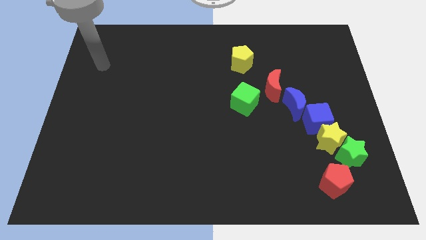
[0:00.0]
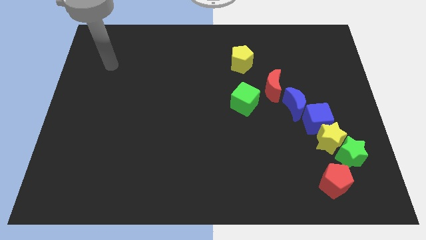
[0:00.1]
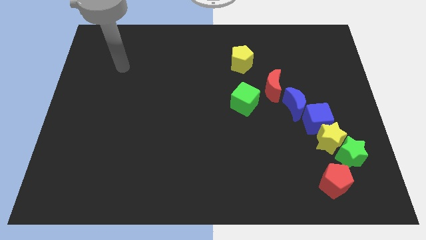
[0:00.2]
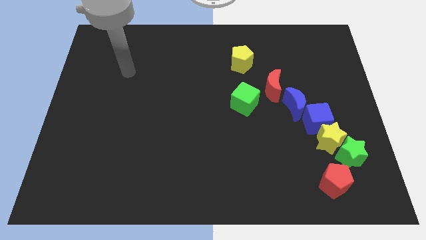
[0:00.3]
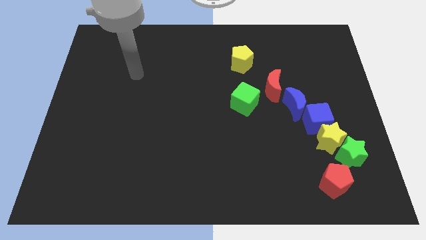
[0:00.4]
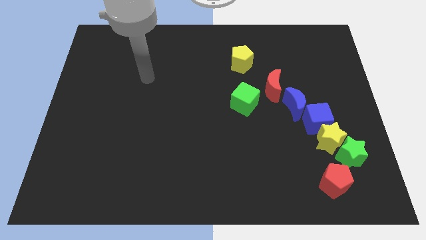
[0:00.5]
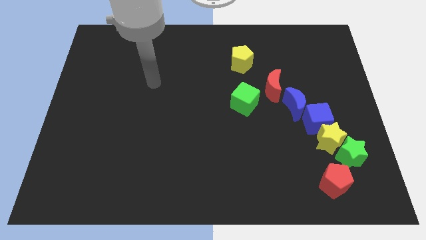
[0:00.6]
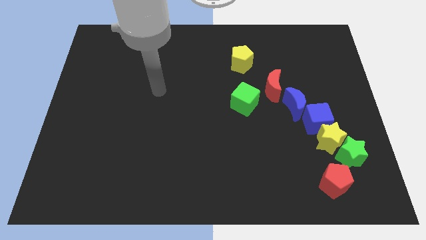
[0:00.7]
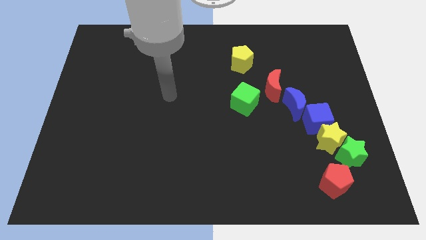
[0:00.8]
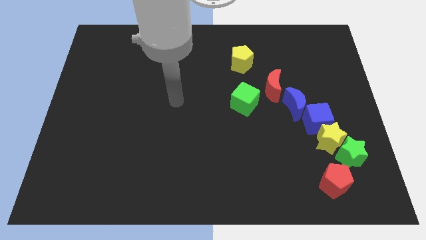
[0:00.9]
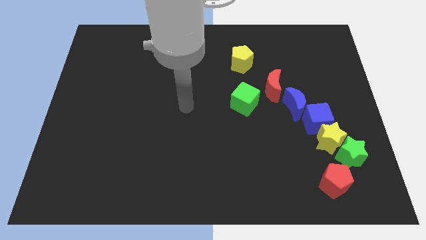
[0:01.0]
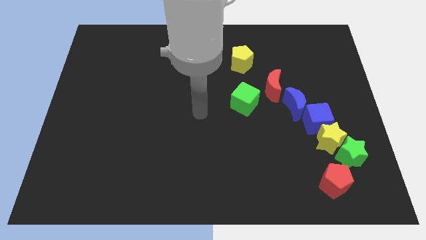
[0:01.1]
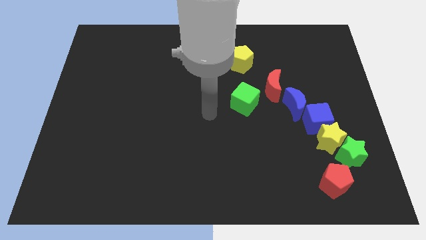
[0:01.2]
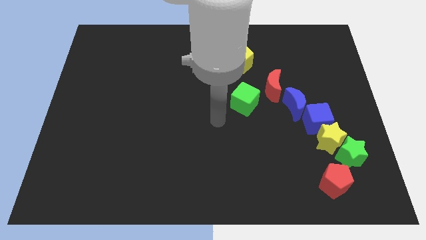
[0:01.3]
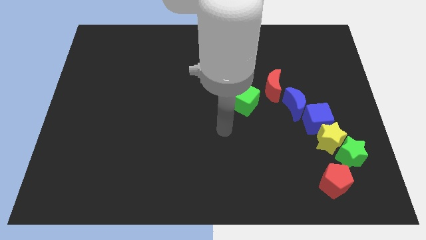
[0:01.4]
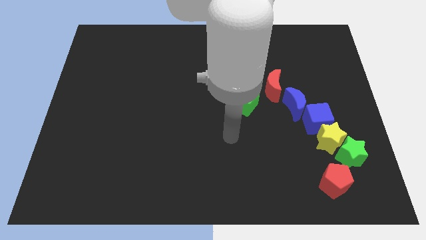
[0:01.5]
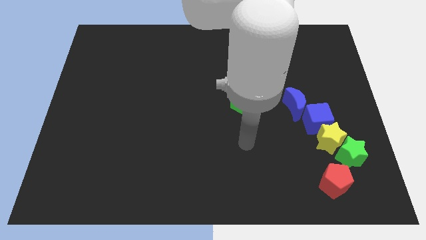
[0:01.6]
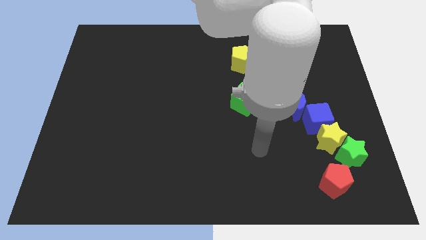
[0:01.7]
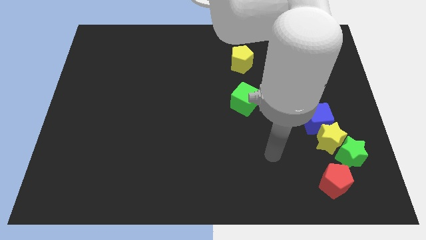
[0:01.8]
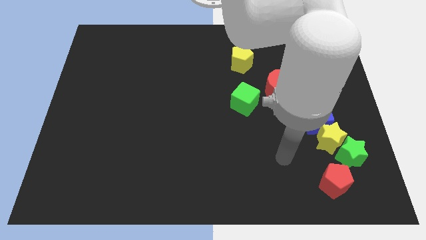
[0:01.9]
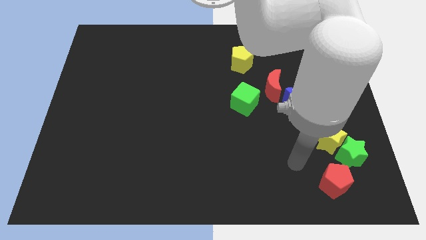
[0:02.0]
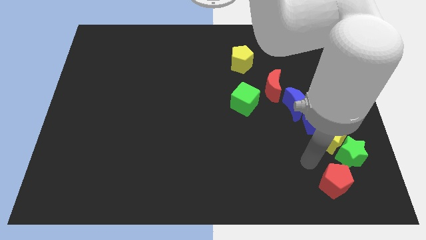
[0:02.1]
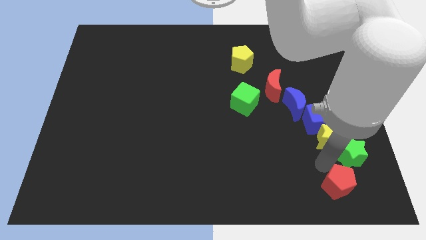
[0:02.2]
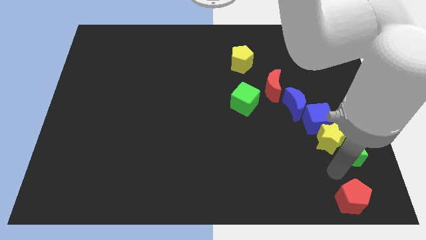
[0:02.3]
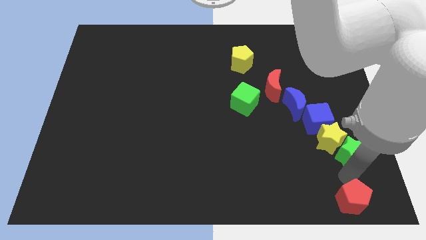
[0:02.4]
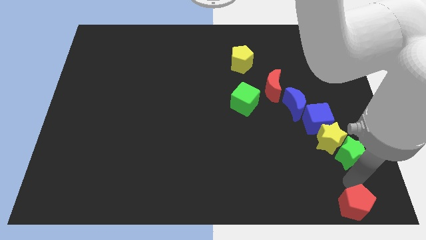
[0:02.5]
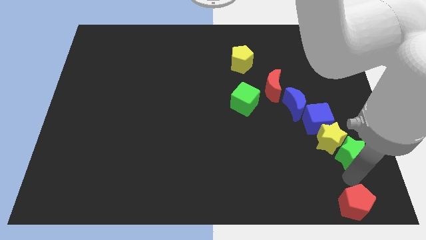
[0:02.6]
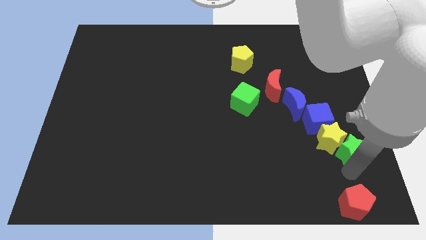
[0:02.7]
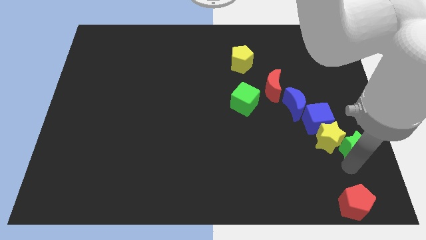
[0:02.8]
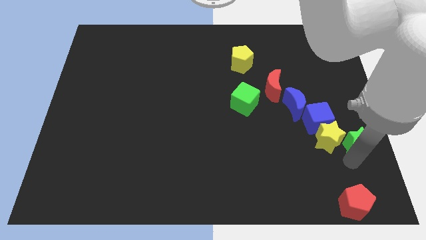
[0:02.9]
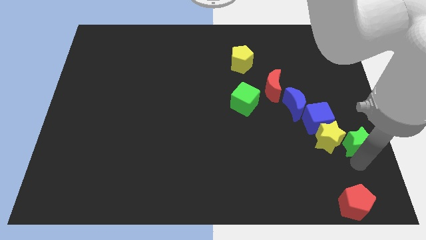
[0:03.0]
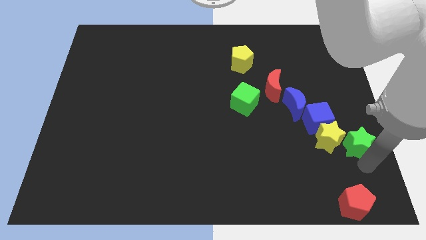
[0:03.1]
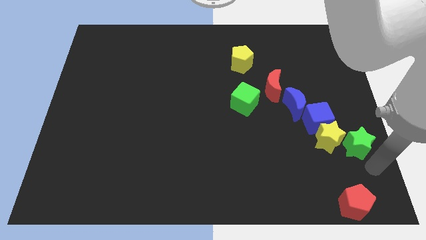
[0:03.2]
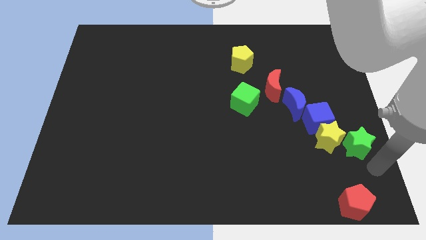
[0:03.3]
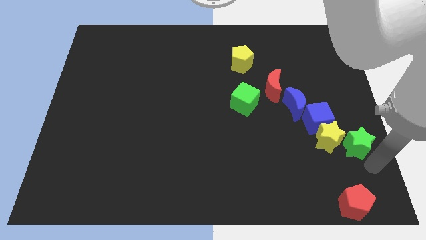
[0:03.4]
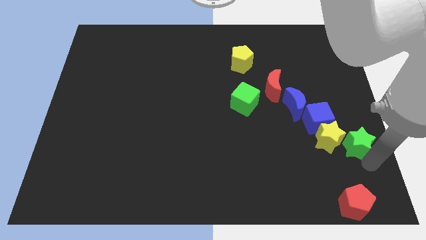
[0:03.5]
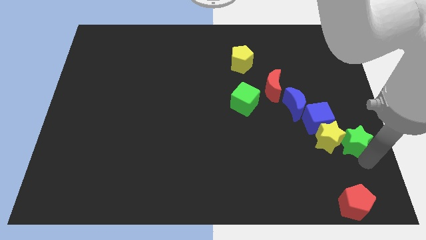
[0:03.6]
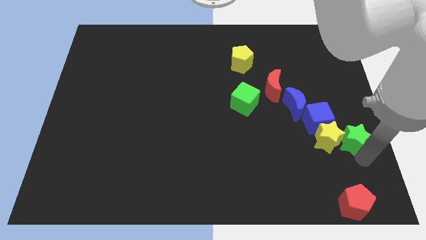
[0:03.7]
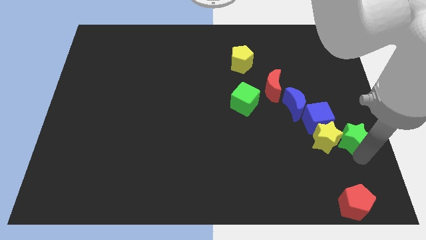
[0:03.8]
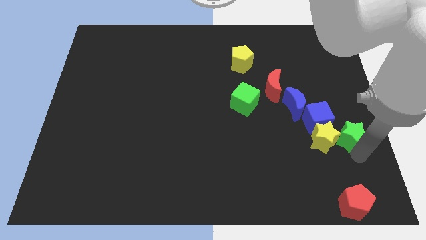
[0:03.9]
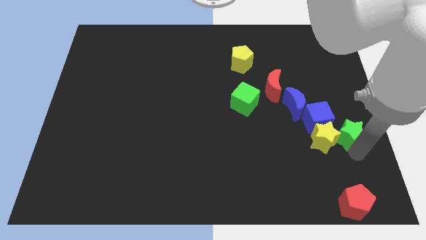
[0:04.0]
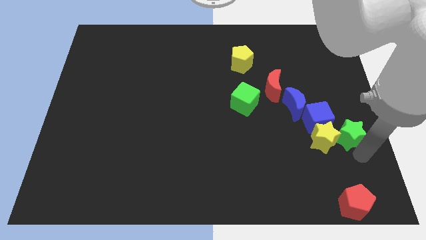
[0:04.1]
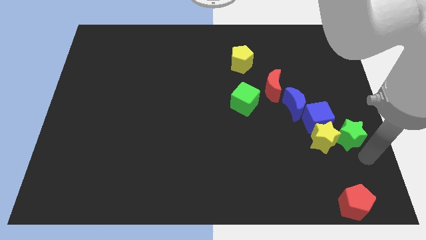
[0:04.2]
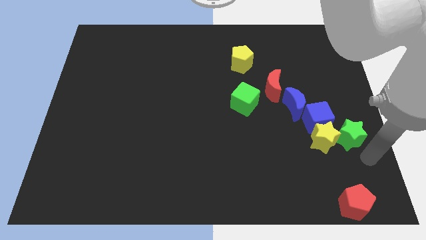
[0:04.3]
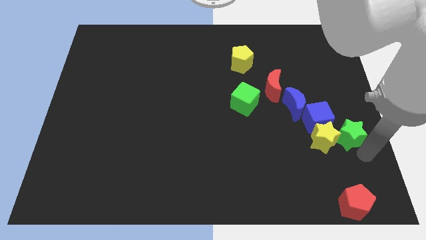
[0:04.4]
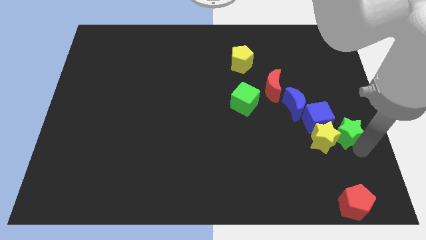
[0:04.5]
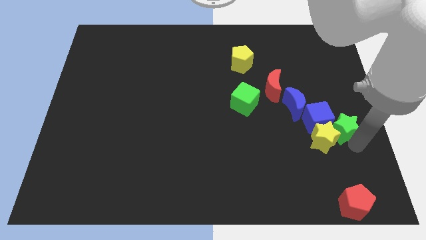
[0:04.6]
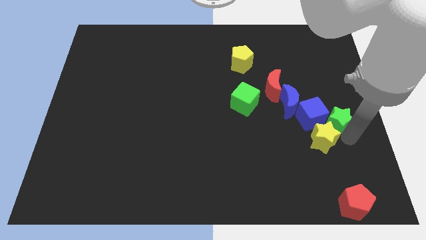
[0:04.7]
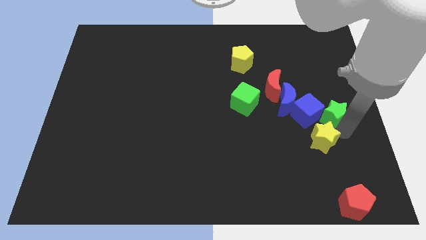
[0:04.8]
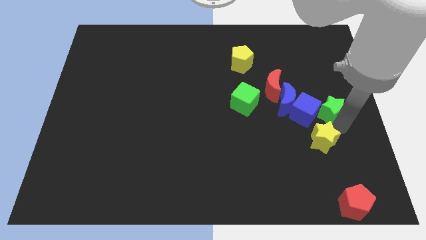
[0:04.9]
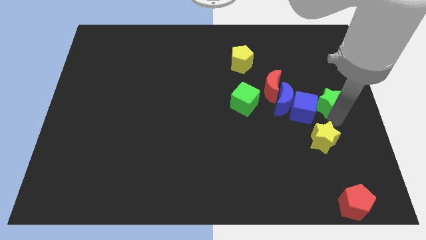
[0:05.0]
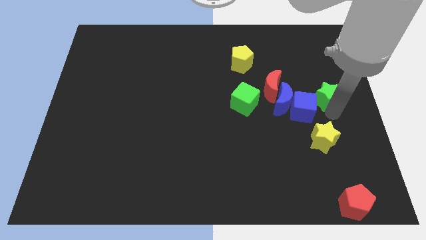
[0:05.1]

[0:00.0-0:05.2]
push the green star to the right of the red moon

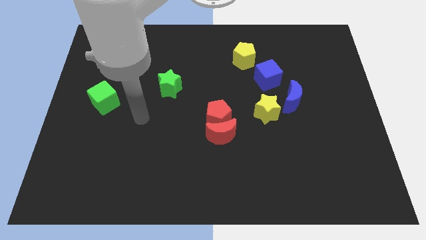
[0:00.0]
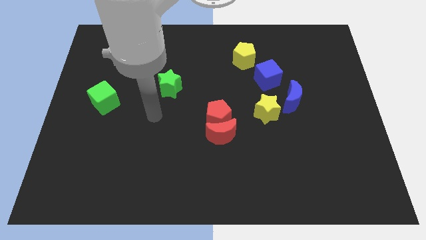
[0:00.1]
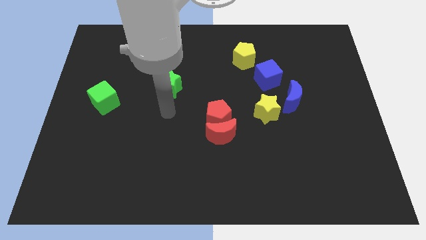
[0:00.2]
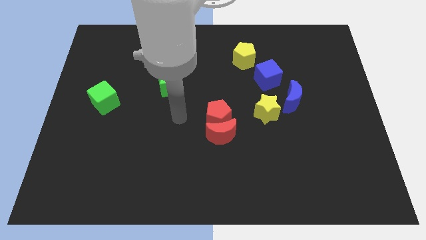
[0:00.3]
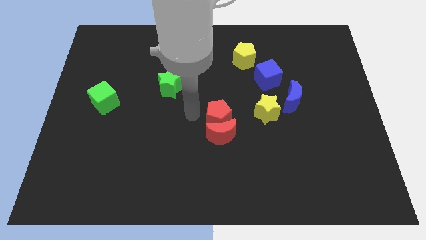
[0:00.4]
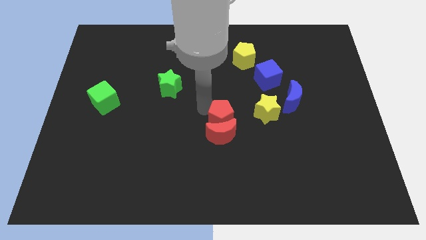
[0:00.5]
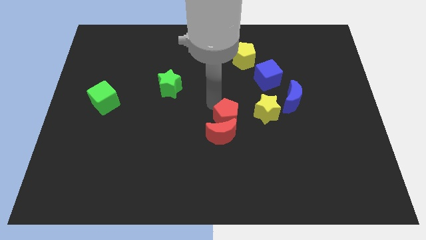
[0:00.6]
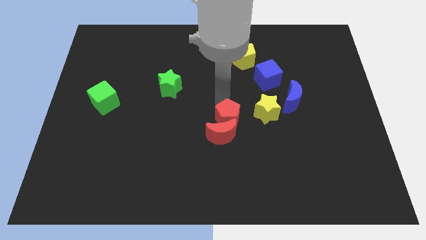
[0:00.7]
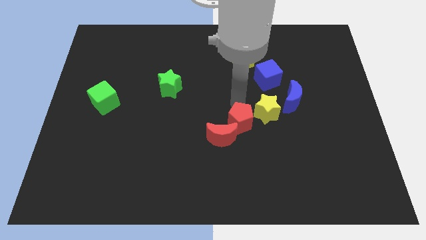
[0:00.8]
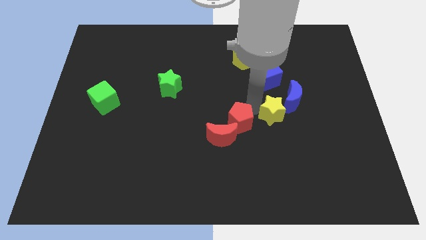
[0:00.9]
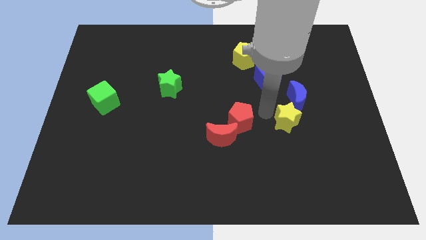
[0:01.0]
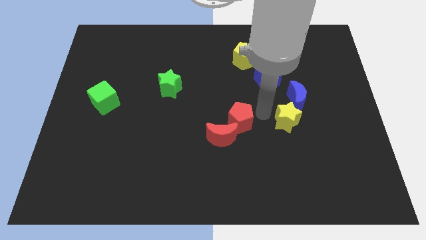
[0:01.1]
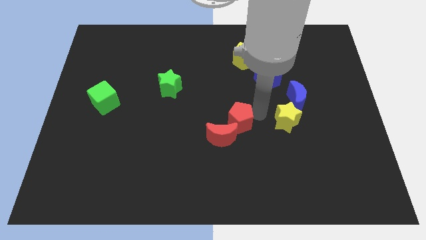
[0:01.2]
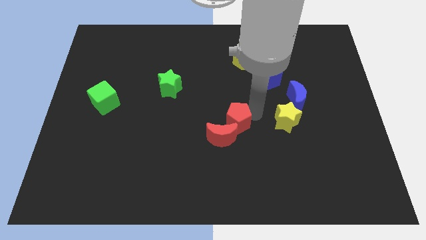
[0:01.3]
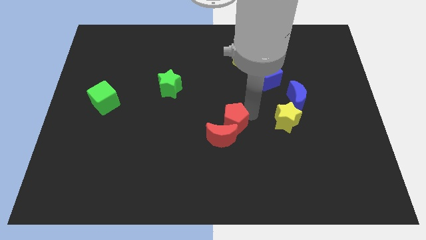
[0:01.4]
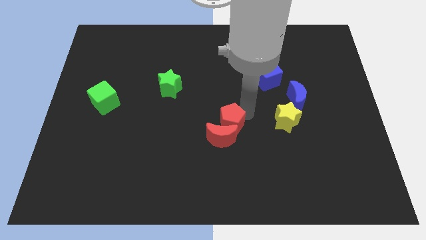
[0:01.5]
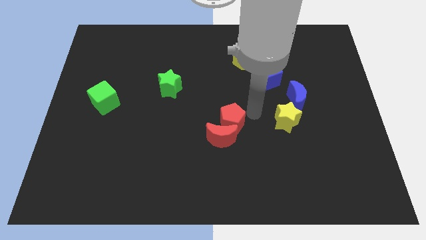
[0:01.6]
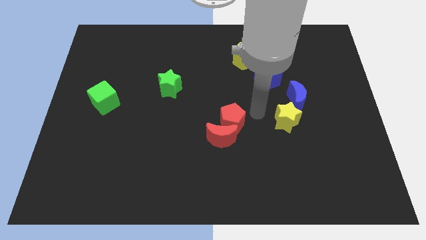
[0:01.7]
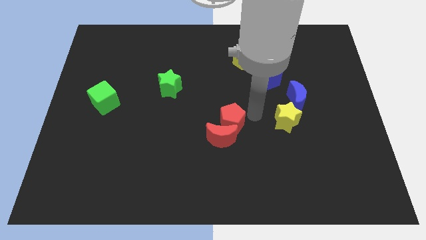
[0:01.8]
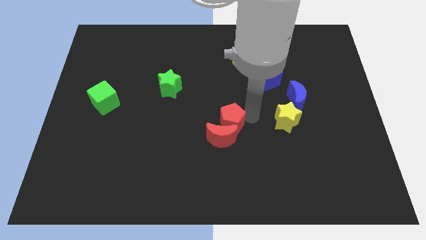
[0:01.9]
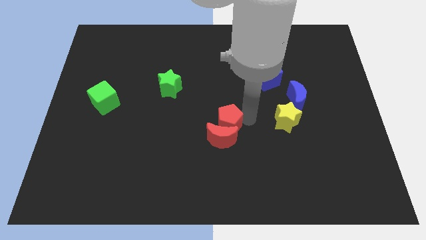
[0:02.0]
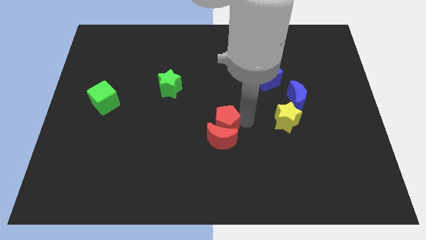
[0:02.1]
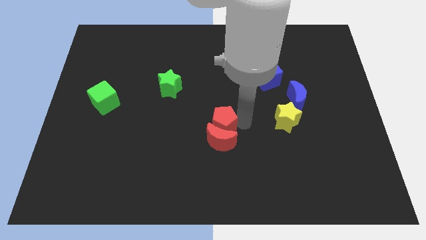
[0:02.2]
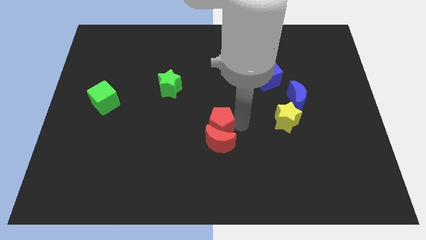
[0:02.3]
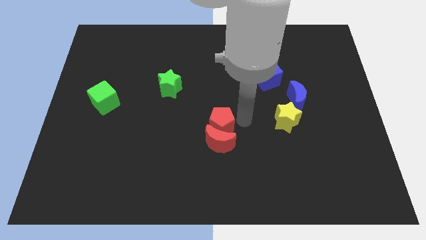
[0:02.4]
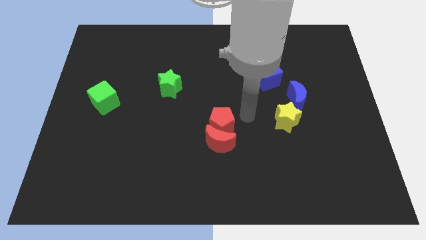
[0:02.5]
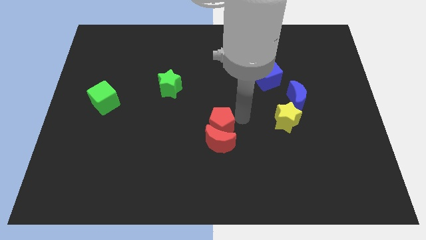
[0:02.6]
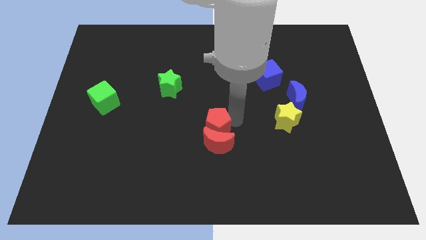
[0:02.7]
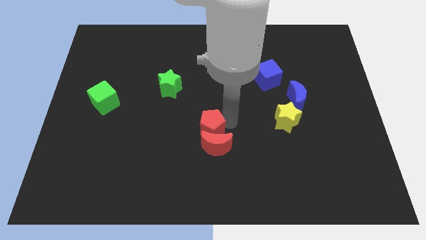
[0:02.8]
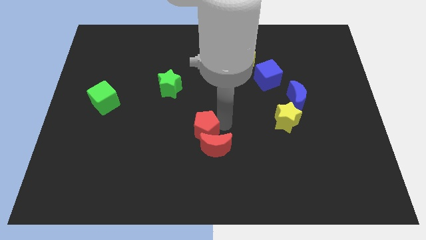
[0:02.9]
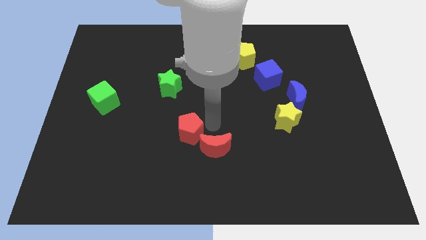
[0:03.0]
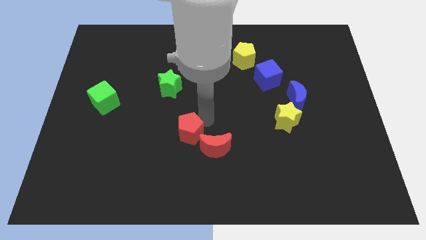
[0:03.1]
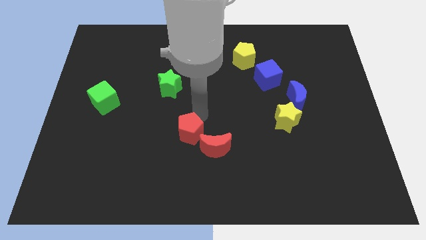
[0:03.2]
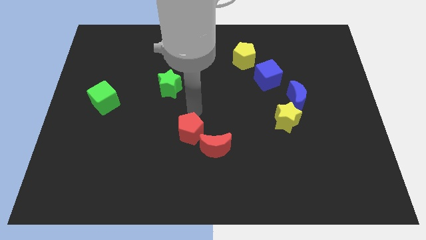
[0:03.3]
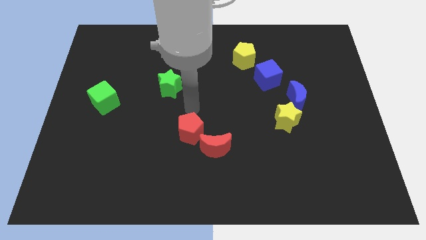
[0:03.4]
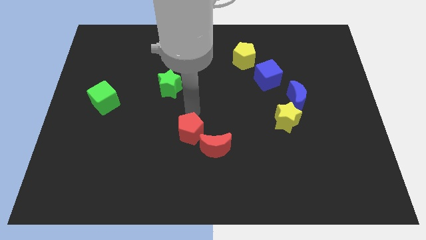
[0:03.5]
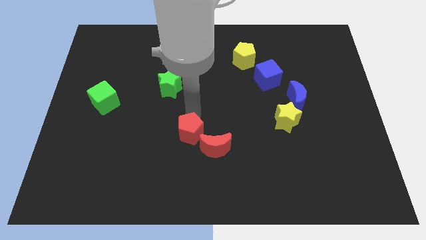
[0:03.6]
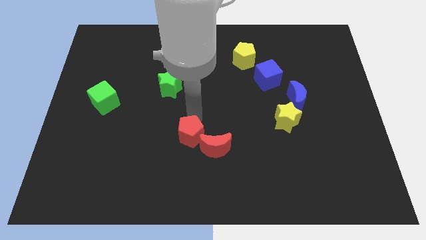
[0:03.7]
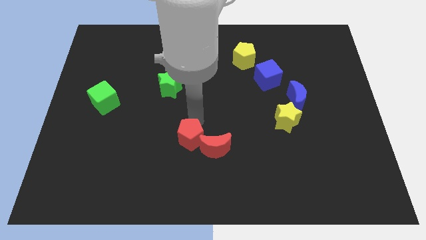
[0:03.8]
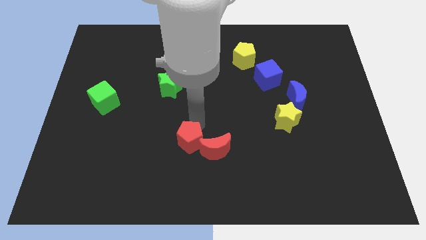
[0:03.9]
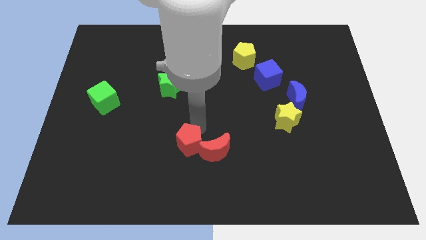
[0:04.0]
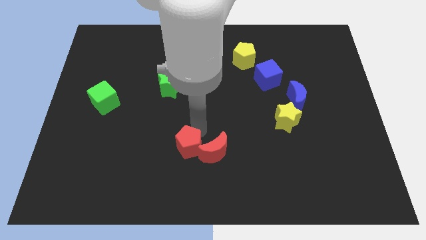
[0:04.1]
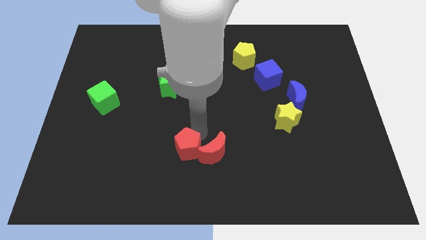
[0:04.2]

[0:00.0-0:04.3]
slide the red pentagon diagonally down and to the left of the red moon
